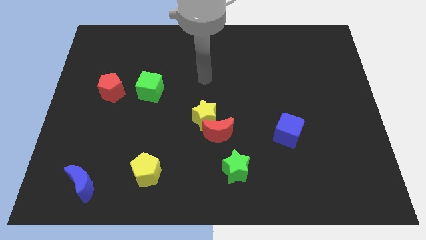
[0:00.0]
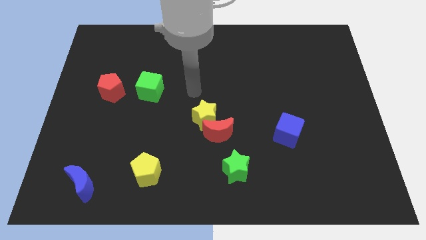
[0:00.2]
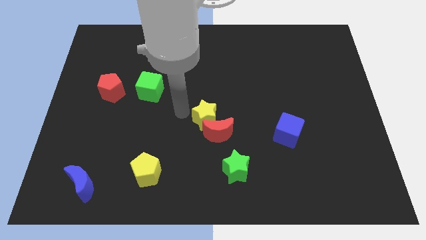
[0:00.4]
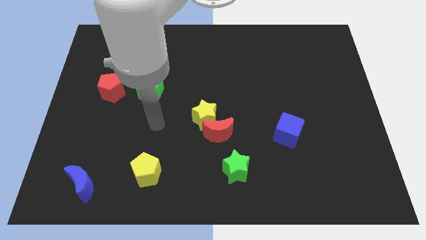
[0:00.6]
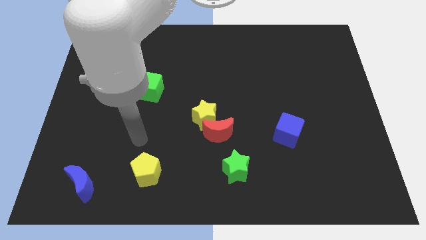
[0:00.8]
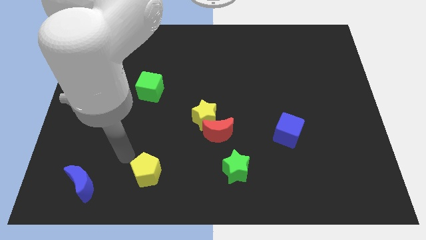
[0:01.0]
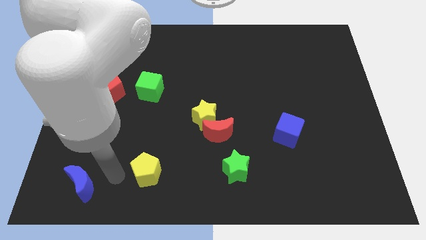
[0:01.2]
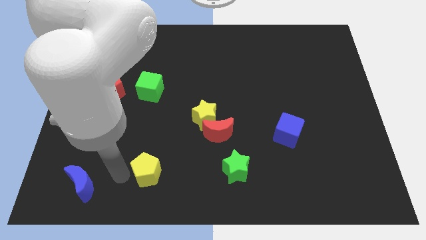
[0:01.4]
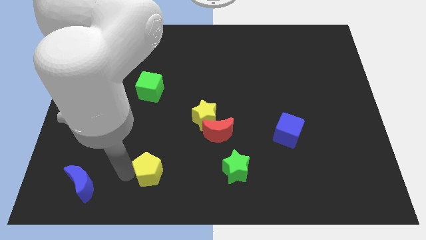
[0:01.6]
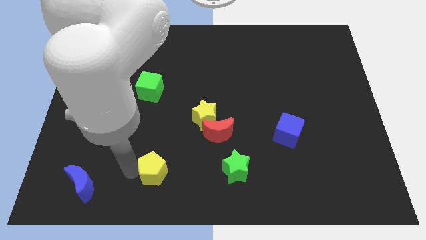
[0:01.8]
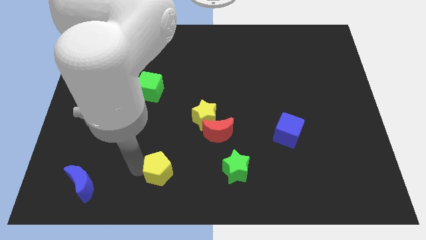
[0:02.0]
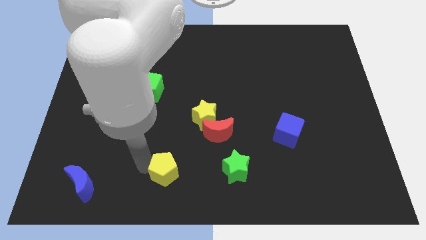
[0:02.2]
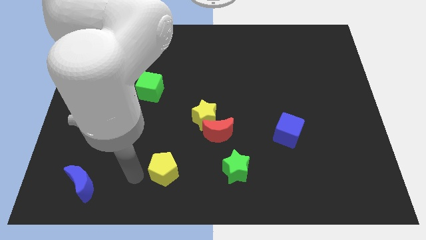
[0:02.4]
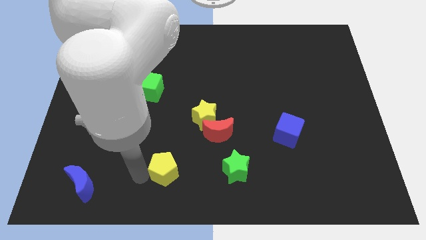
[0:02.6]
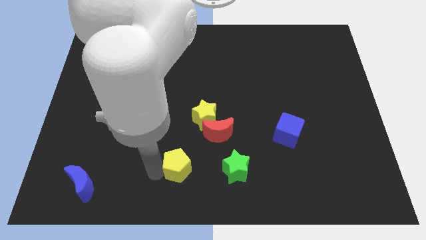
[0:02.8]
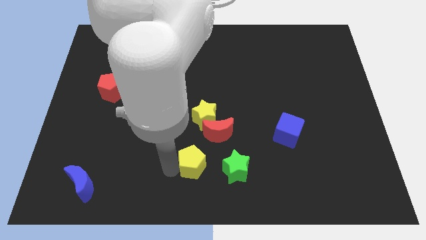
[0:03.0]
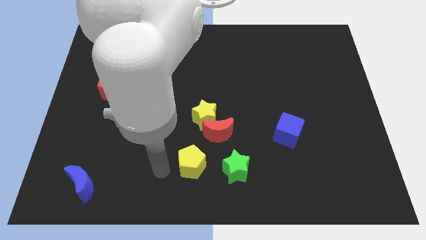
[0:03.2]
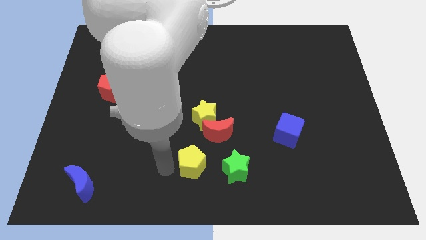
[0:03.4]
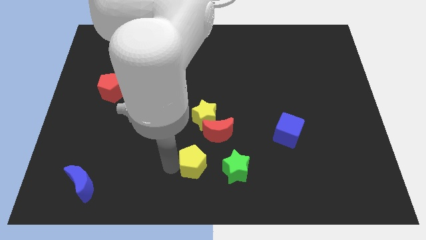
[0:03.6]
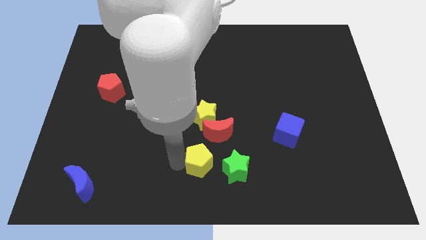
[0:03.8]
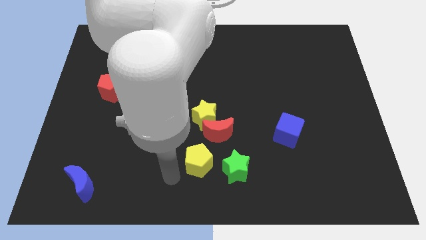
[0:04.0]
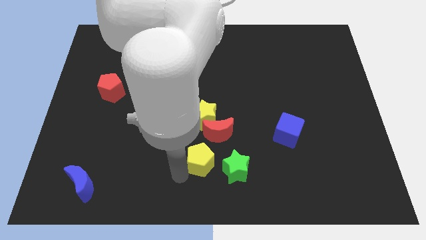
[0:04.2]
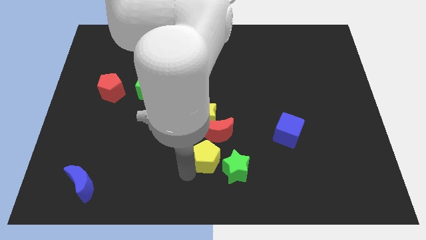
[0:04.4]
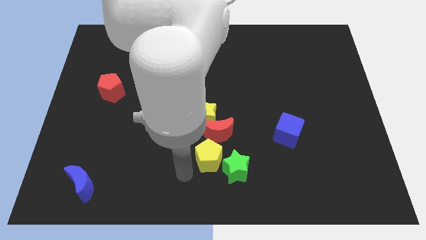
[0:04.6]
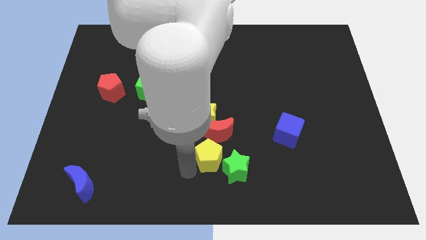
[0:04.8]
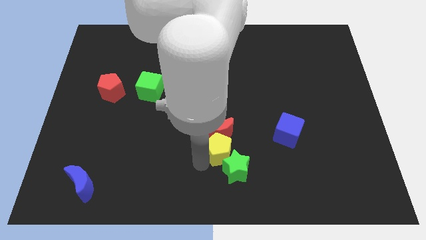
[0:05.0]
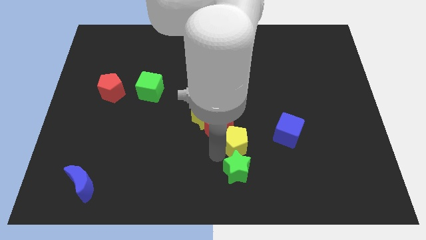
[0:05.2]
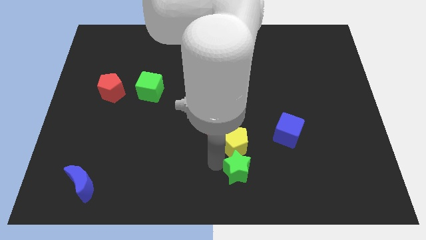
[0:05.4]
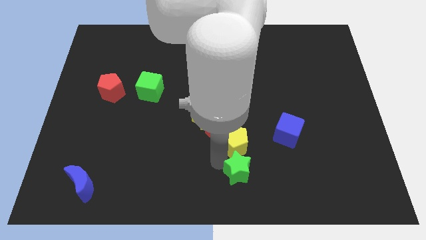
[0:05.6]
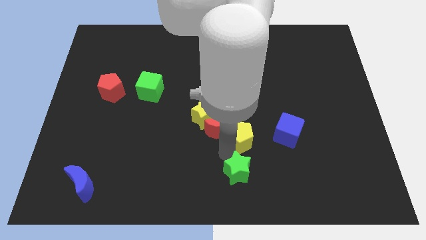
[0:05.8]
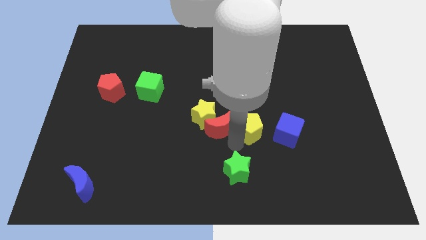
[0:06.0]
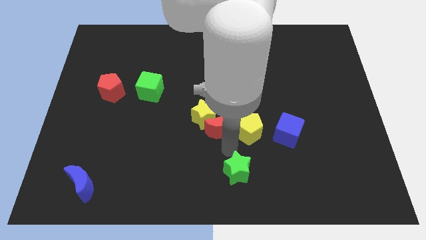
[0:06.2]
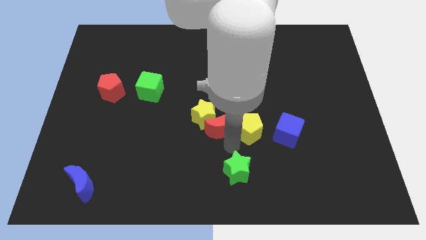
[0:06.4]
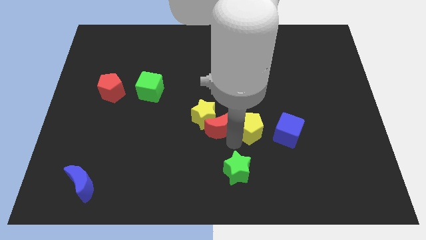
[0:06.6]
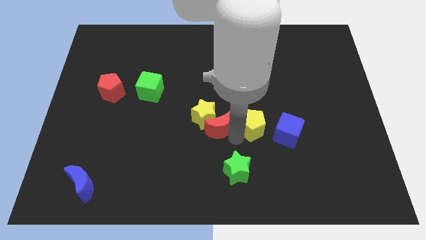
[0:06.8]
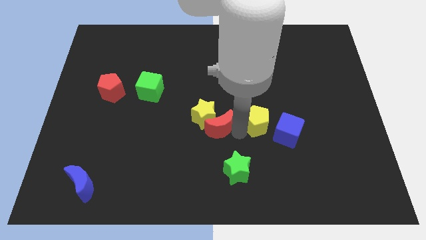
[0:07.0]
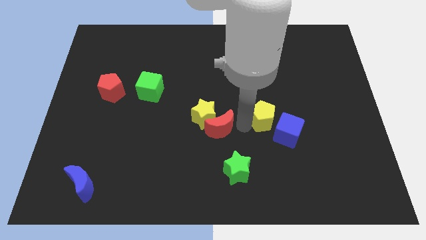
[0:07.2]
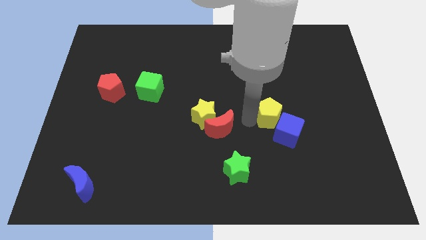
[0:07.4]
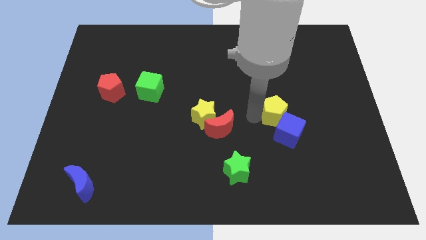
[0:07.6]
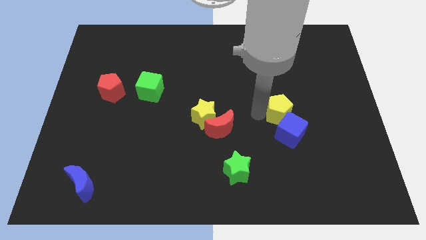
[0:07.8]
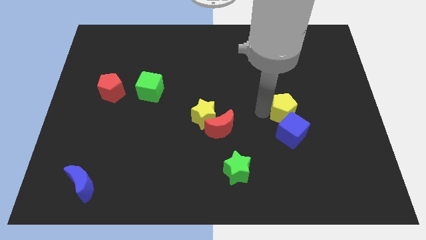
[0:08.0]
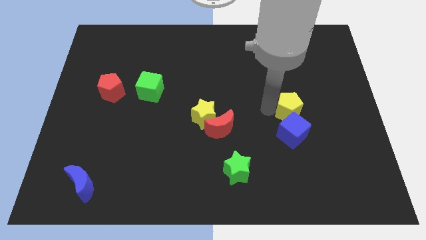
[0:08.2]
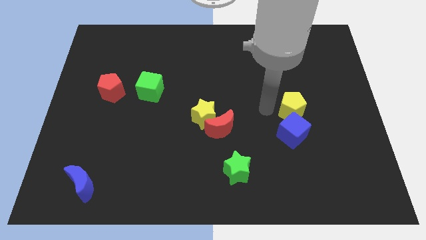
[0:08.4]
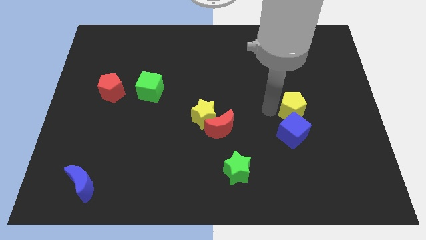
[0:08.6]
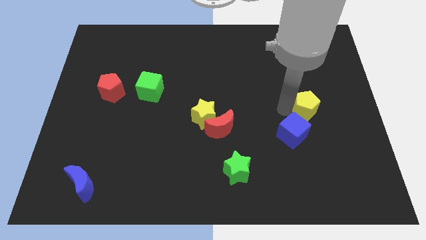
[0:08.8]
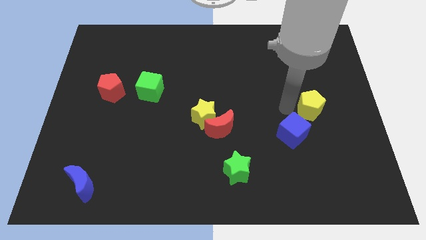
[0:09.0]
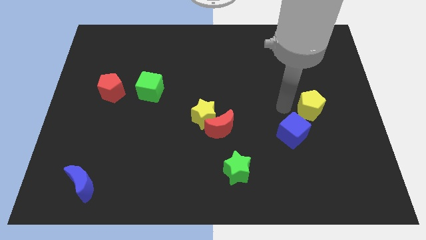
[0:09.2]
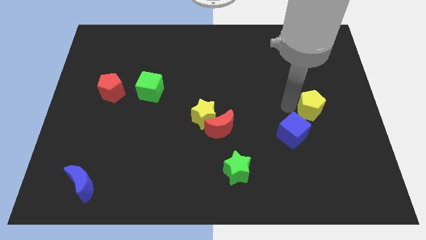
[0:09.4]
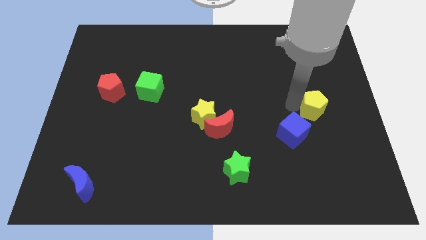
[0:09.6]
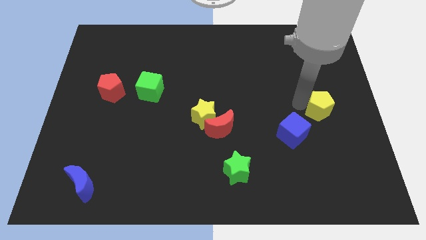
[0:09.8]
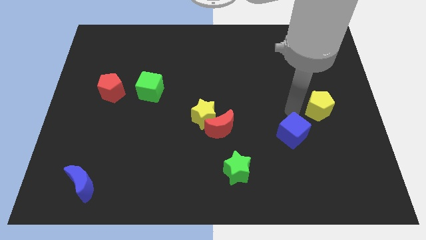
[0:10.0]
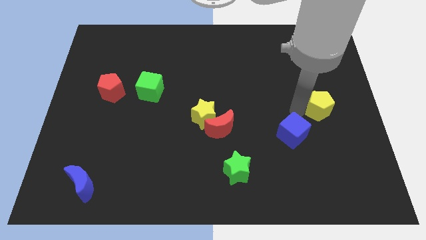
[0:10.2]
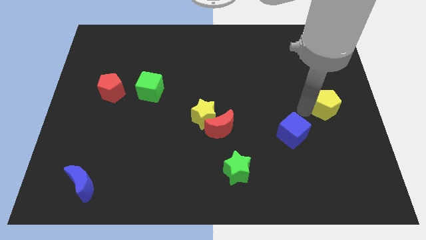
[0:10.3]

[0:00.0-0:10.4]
move the yellow pentagon to the right side of the board

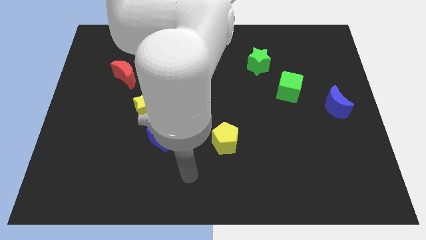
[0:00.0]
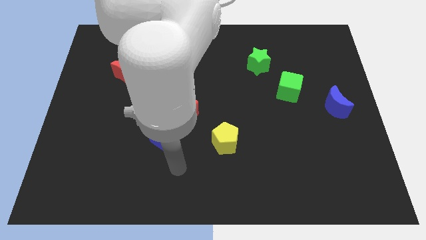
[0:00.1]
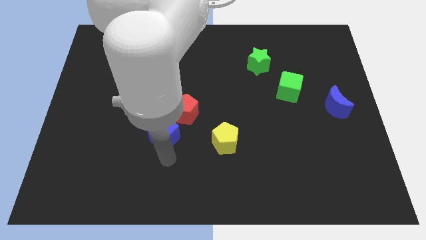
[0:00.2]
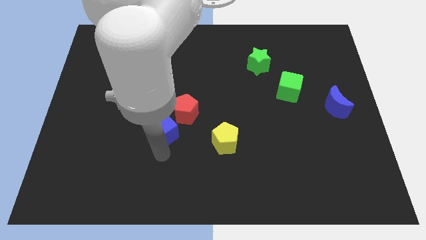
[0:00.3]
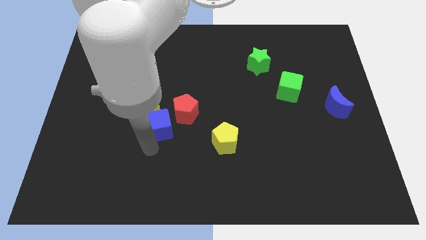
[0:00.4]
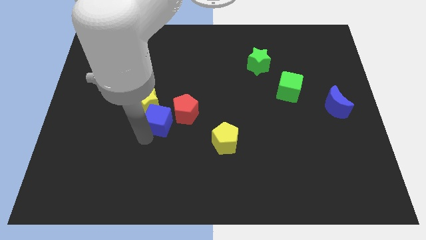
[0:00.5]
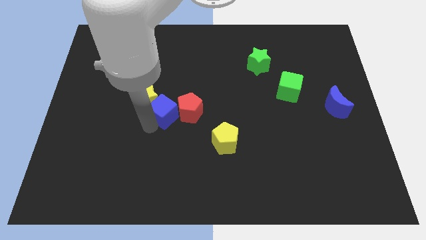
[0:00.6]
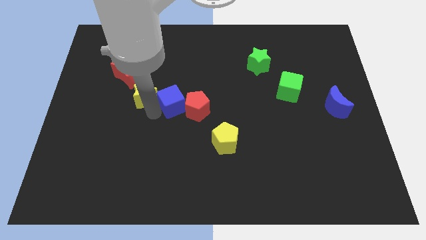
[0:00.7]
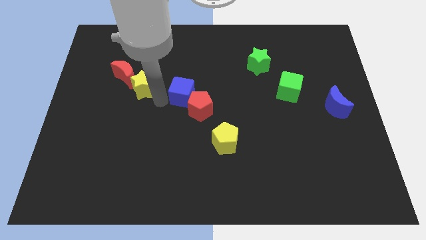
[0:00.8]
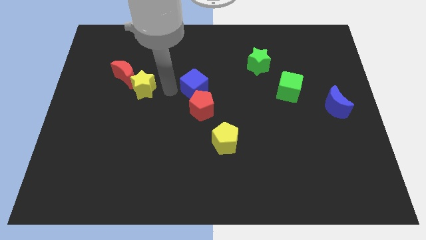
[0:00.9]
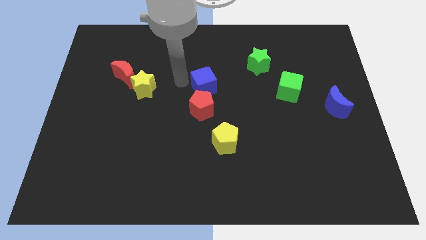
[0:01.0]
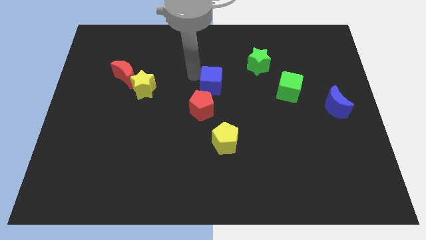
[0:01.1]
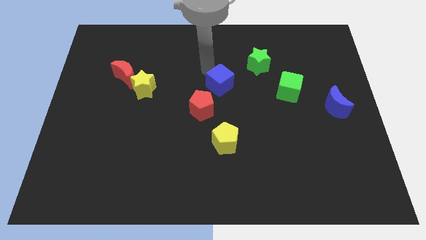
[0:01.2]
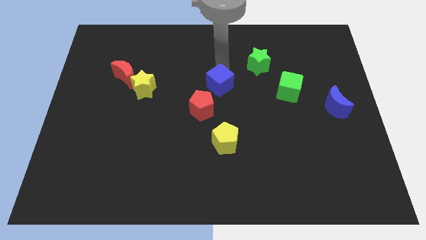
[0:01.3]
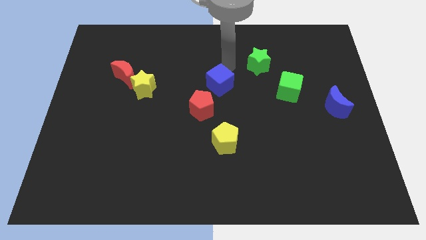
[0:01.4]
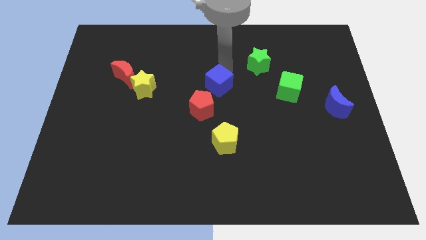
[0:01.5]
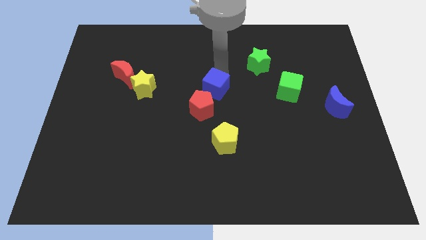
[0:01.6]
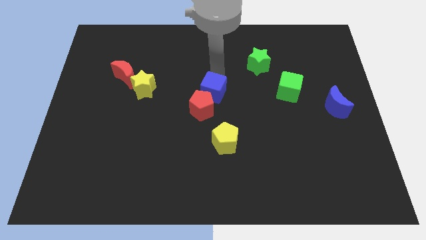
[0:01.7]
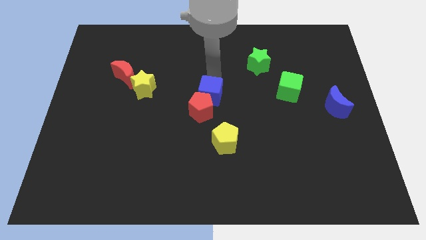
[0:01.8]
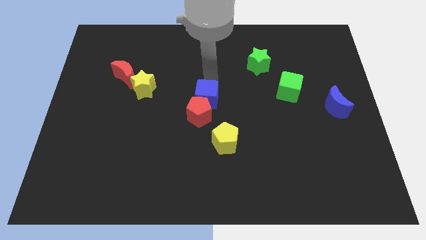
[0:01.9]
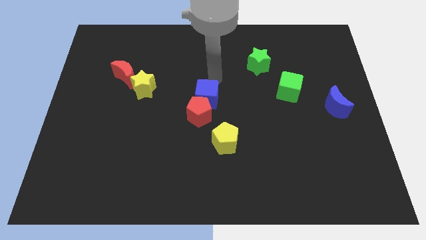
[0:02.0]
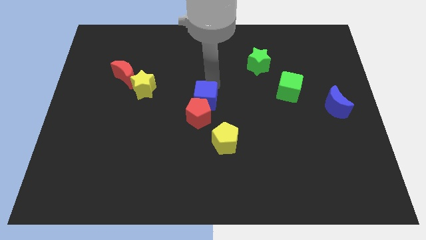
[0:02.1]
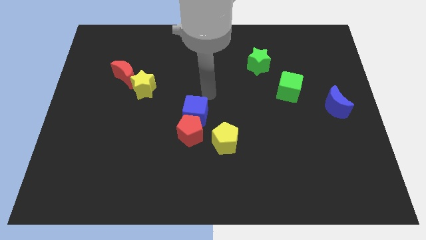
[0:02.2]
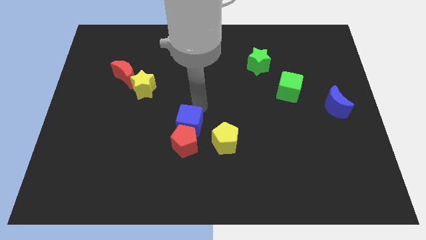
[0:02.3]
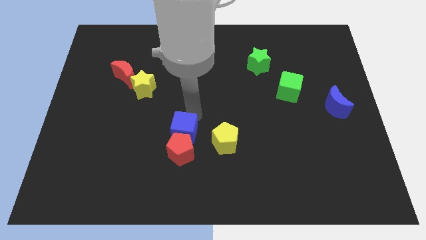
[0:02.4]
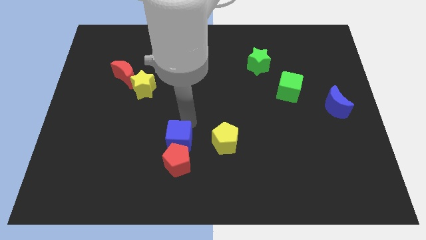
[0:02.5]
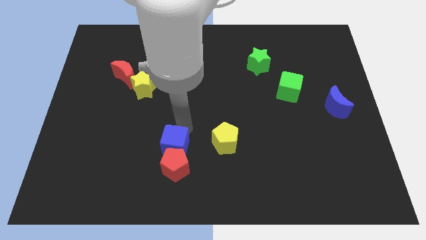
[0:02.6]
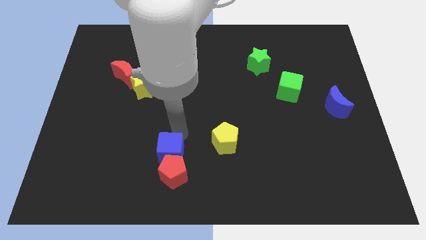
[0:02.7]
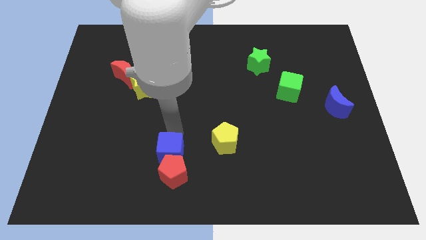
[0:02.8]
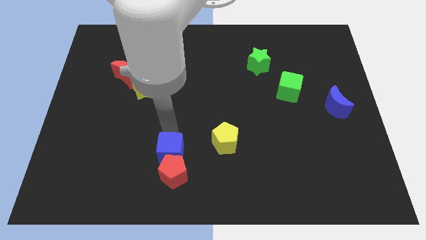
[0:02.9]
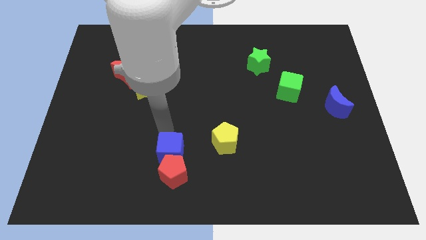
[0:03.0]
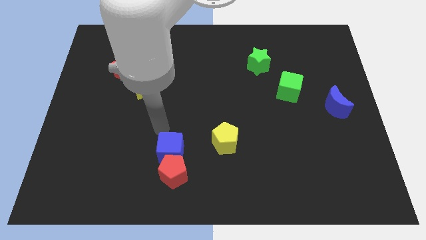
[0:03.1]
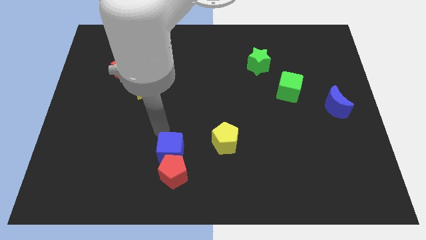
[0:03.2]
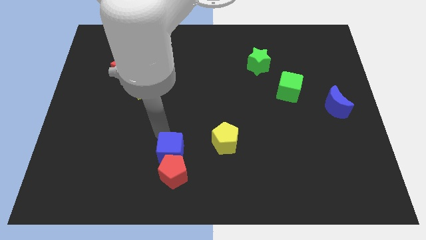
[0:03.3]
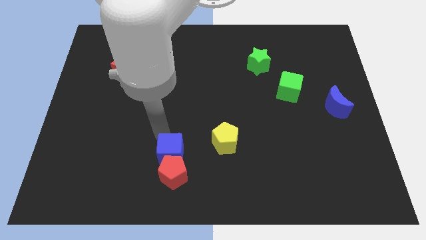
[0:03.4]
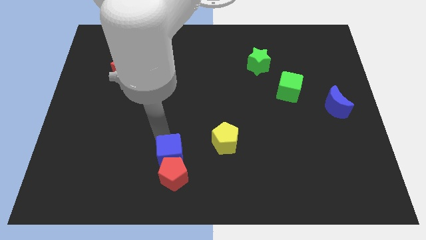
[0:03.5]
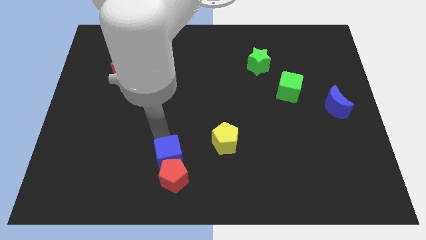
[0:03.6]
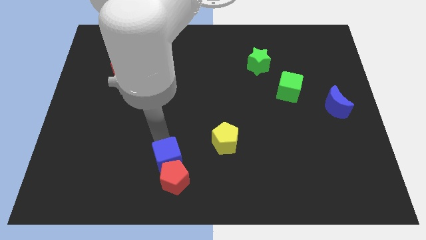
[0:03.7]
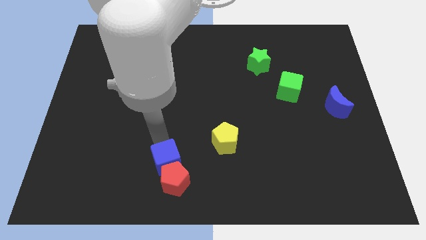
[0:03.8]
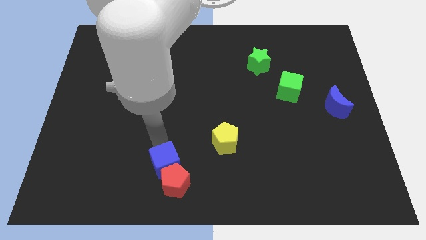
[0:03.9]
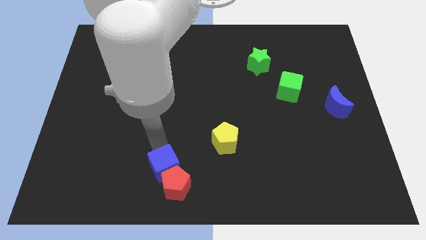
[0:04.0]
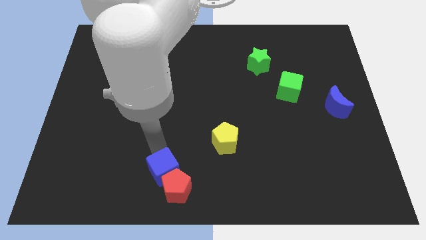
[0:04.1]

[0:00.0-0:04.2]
slide the blue cube to the bottom side
